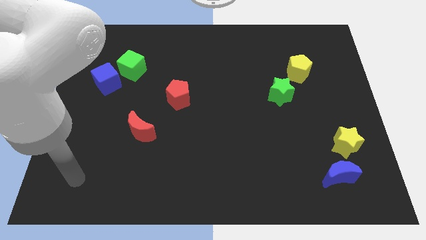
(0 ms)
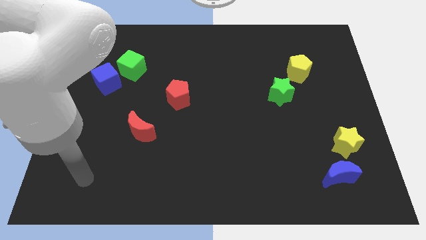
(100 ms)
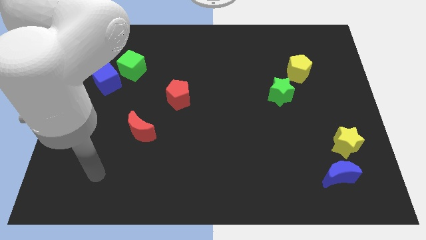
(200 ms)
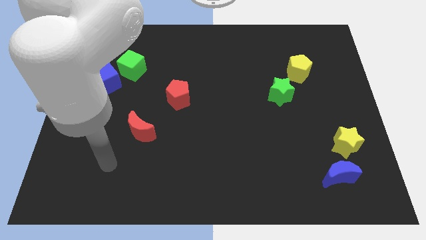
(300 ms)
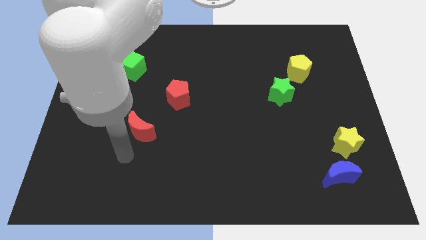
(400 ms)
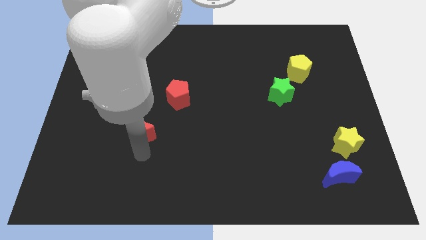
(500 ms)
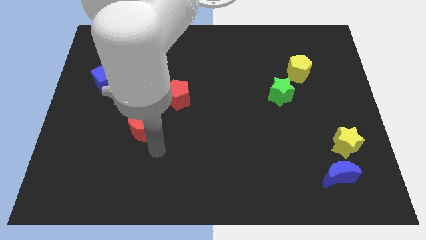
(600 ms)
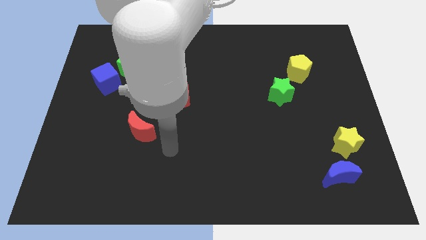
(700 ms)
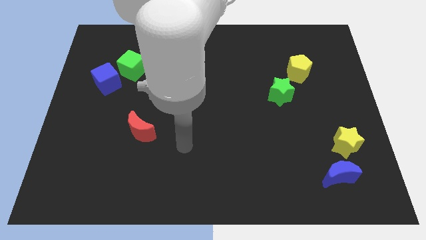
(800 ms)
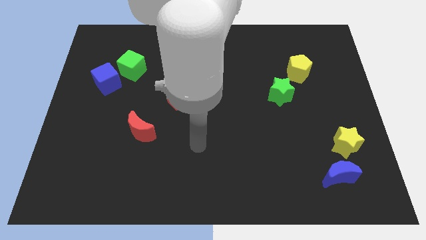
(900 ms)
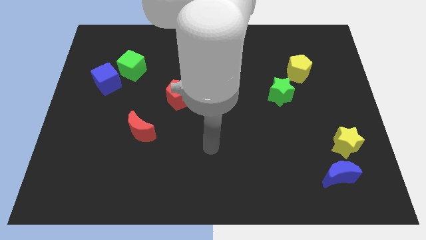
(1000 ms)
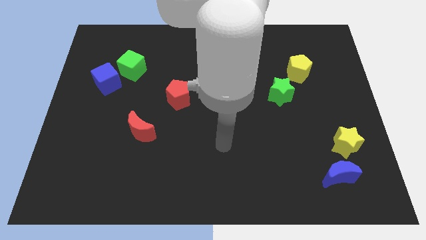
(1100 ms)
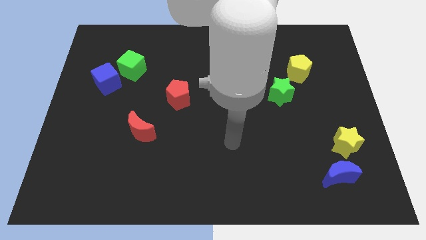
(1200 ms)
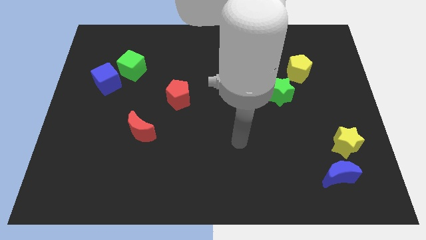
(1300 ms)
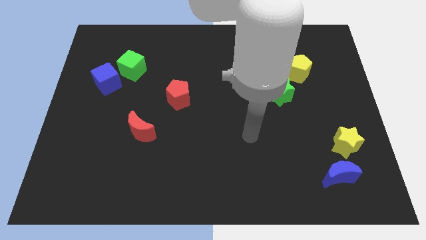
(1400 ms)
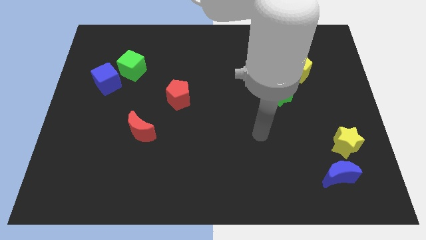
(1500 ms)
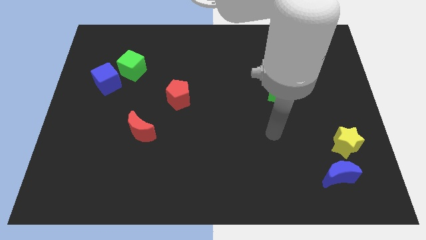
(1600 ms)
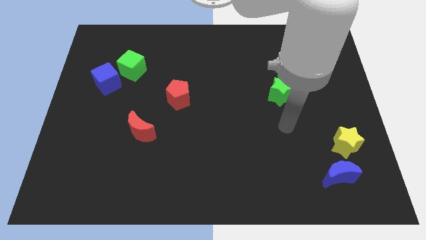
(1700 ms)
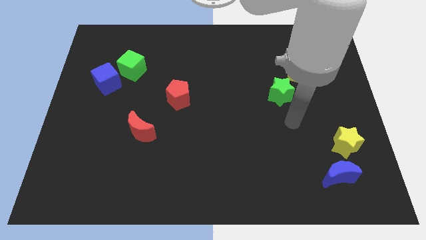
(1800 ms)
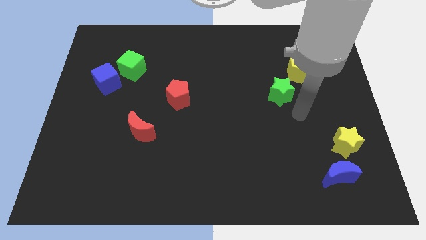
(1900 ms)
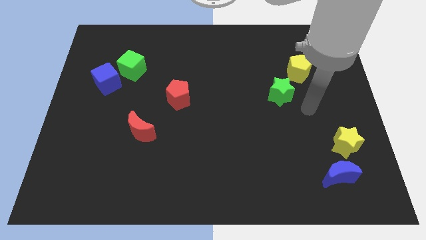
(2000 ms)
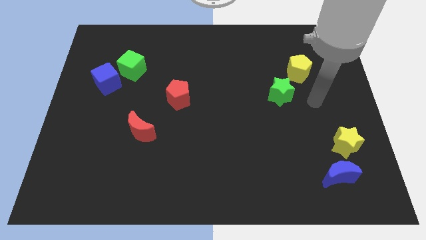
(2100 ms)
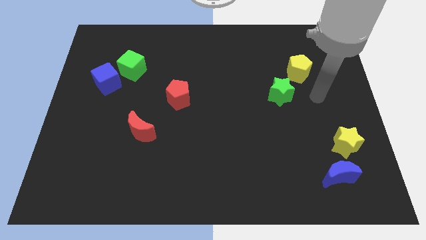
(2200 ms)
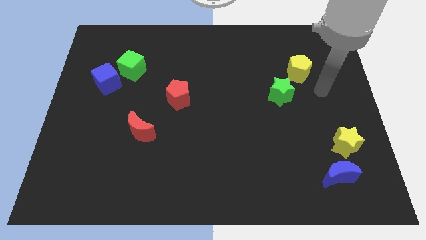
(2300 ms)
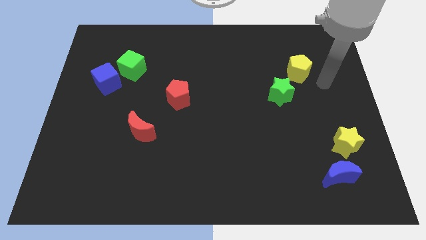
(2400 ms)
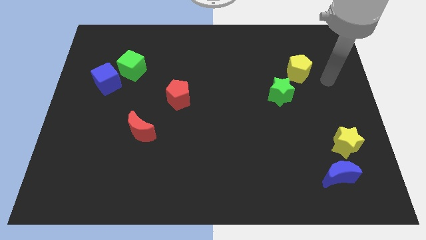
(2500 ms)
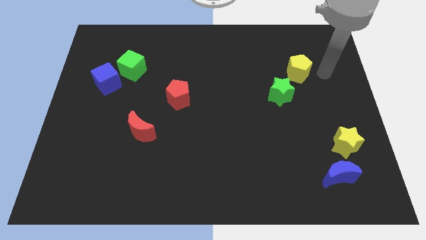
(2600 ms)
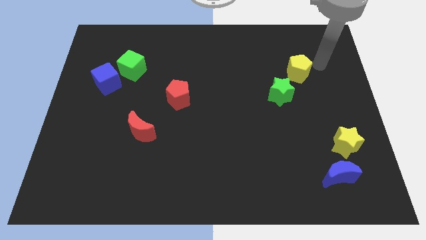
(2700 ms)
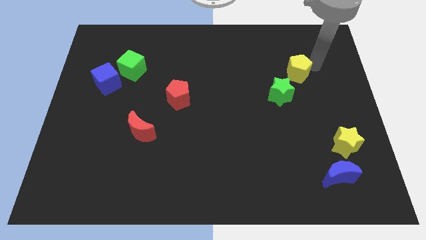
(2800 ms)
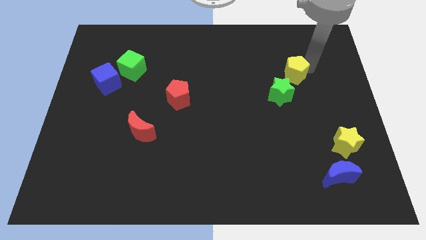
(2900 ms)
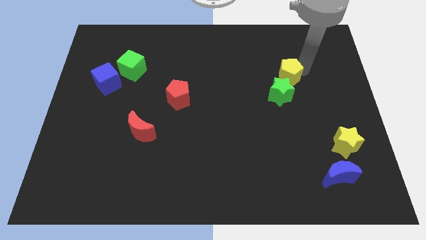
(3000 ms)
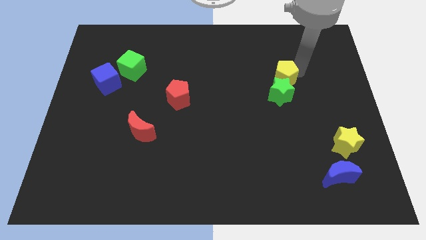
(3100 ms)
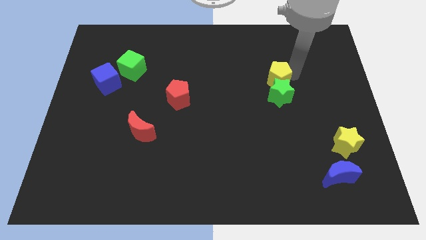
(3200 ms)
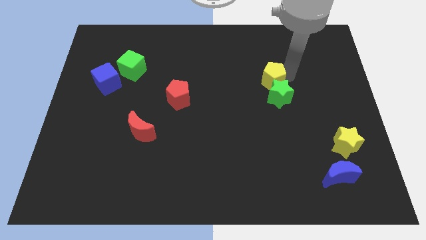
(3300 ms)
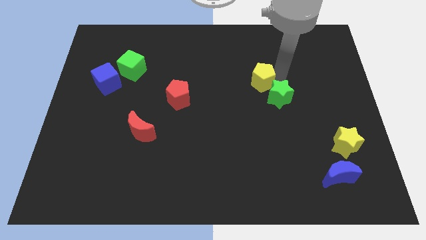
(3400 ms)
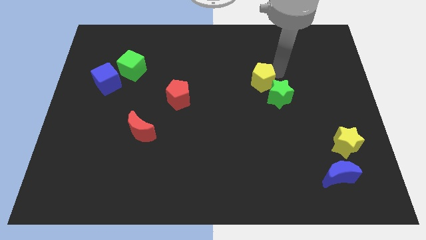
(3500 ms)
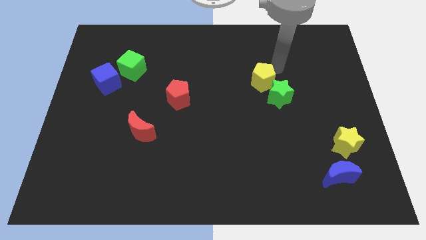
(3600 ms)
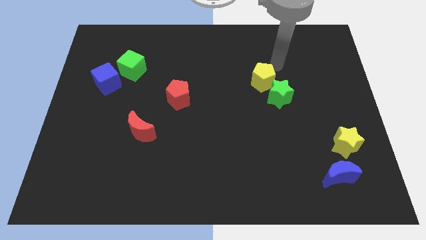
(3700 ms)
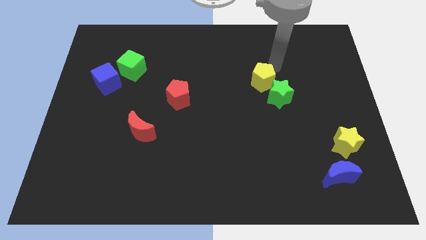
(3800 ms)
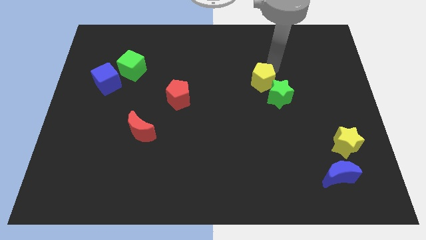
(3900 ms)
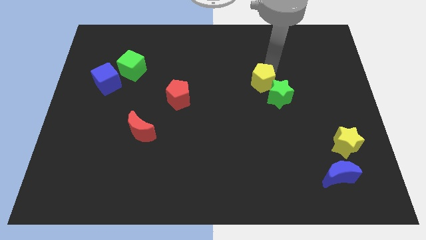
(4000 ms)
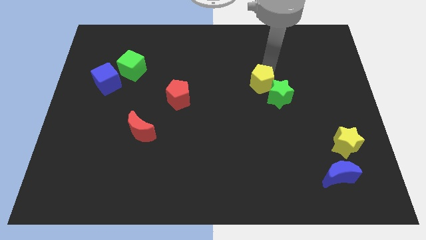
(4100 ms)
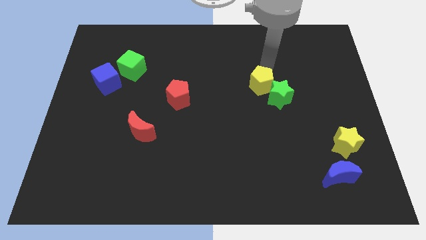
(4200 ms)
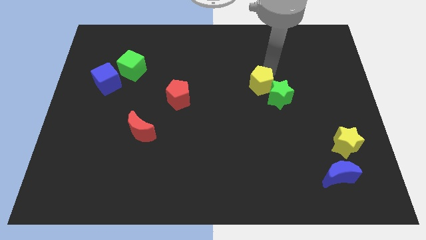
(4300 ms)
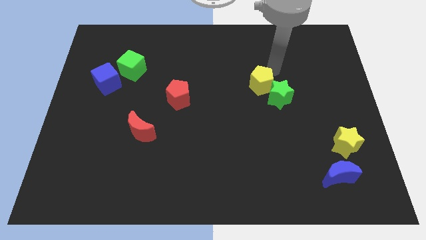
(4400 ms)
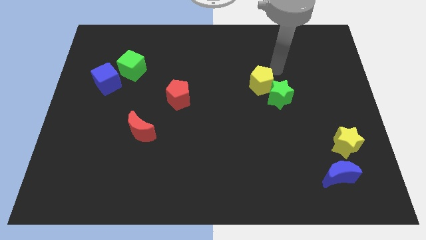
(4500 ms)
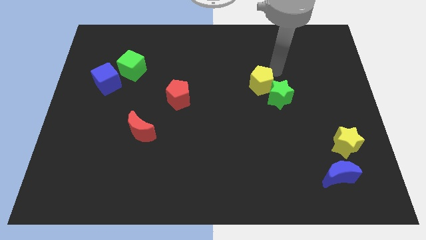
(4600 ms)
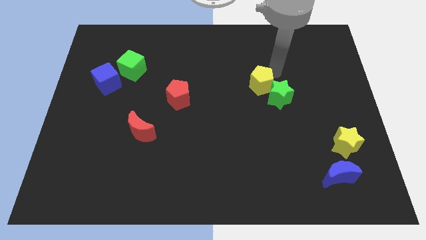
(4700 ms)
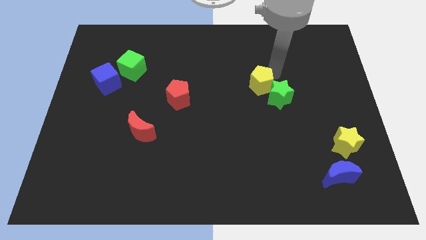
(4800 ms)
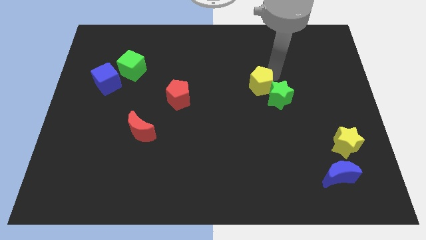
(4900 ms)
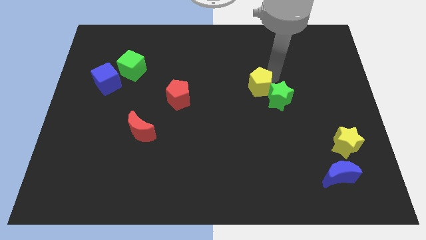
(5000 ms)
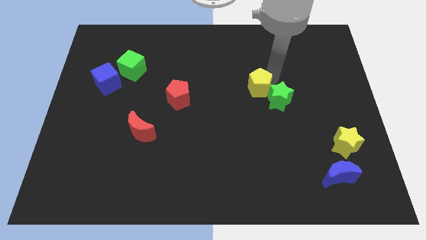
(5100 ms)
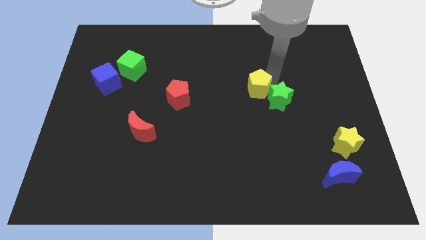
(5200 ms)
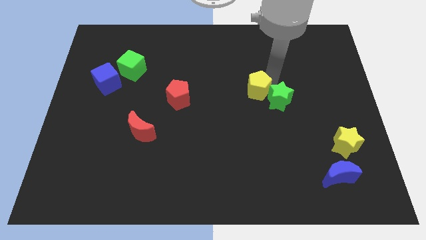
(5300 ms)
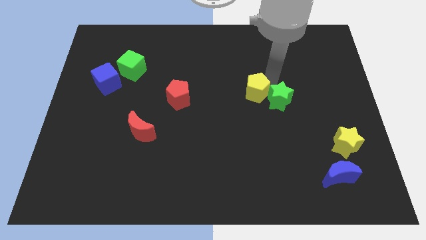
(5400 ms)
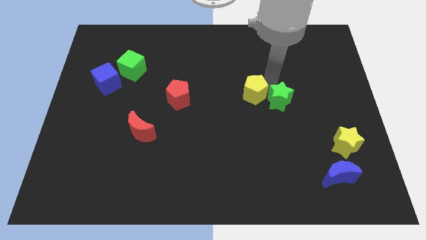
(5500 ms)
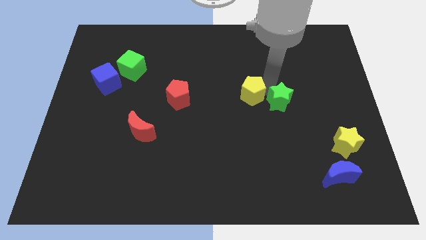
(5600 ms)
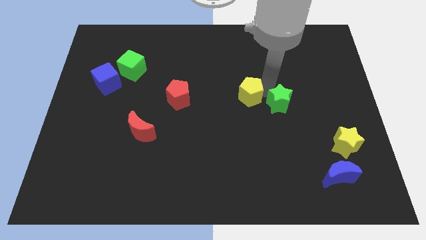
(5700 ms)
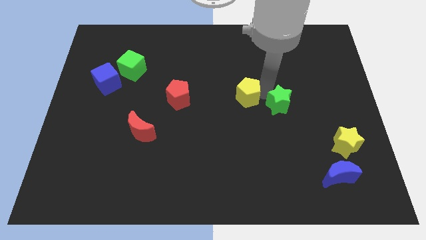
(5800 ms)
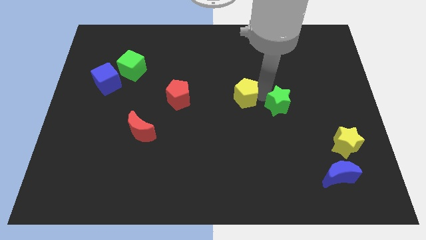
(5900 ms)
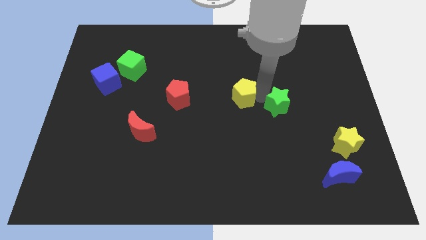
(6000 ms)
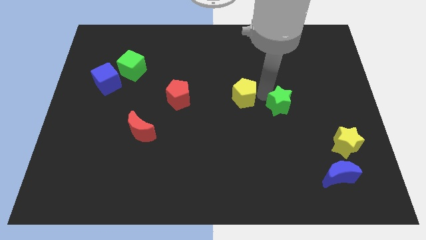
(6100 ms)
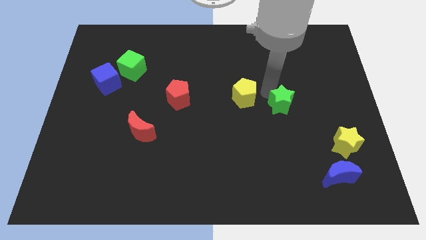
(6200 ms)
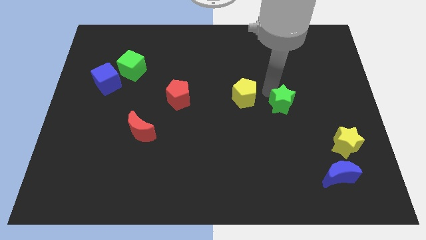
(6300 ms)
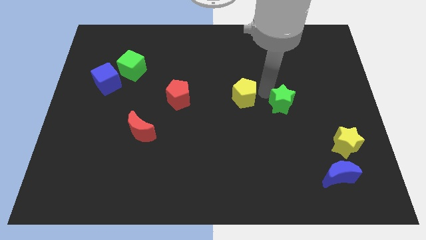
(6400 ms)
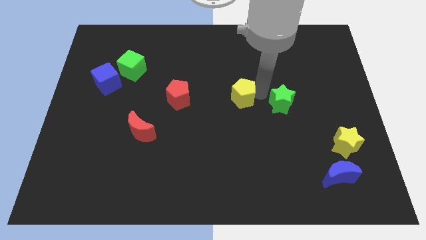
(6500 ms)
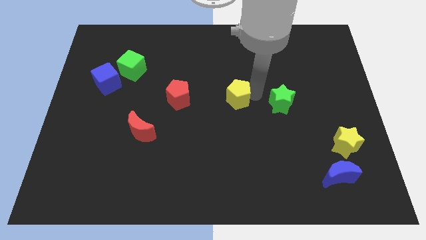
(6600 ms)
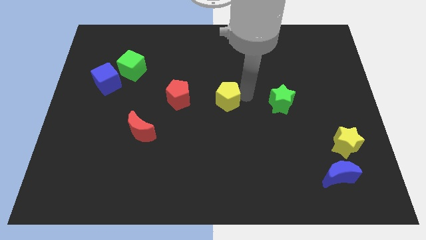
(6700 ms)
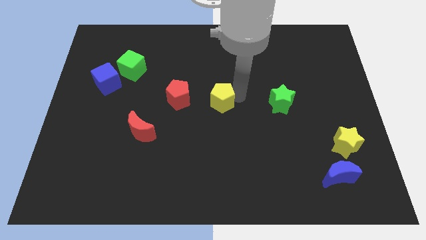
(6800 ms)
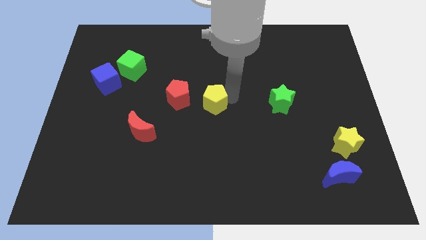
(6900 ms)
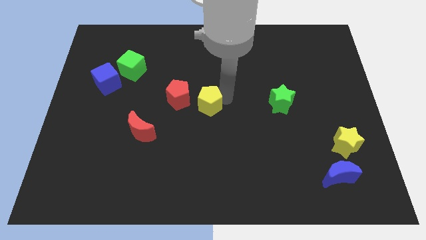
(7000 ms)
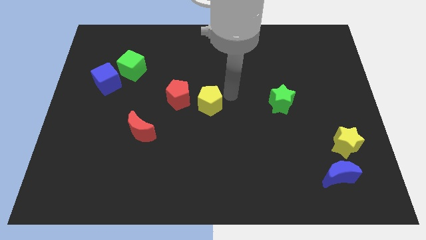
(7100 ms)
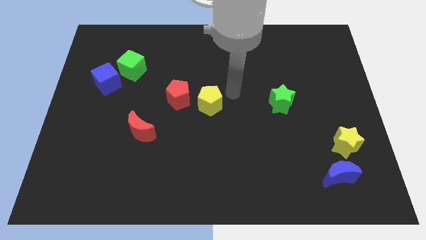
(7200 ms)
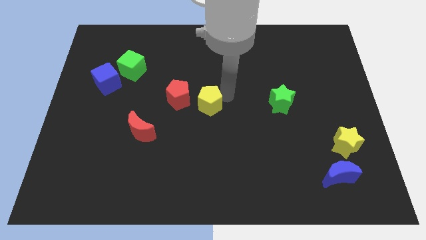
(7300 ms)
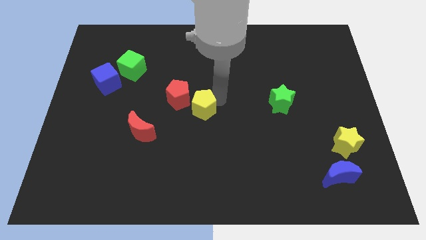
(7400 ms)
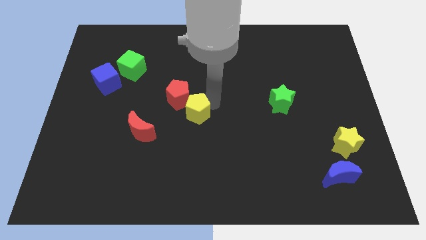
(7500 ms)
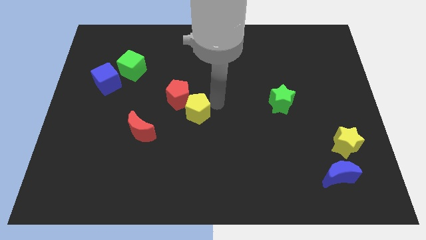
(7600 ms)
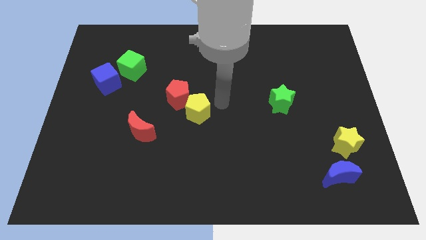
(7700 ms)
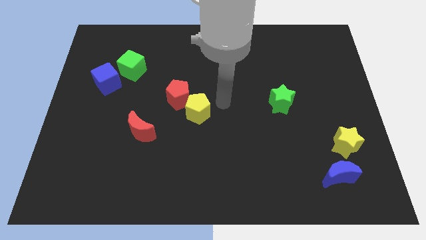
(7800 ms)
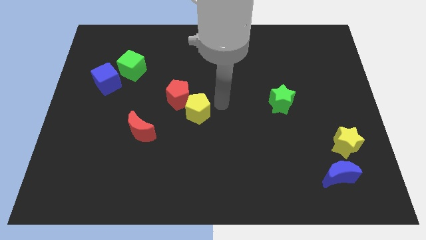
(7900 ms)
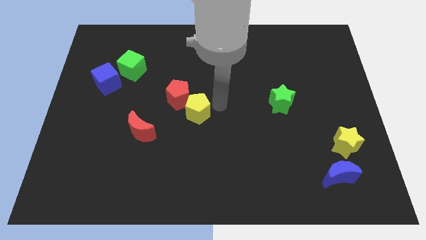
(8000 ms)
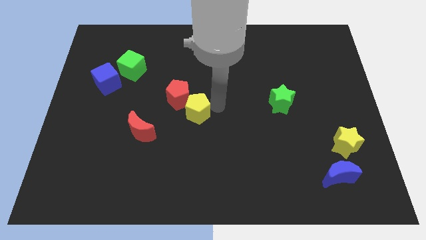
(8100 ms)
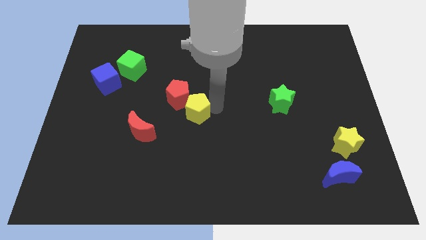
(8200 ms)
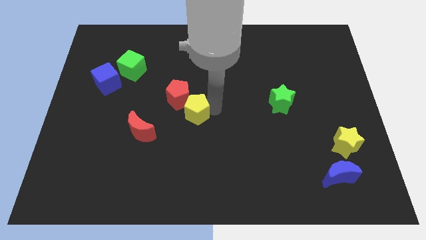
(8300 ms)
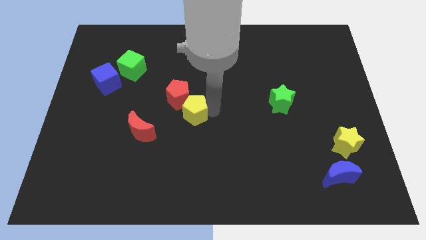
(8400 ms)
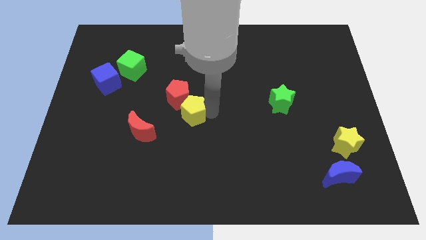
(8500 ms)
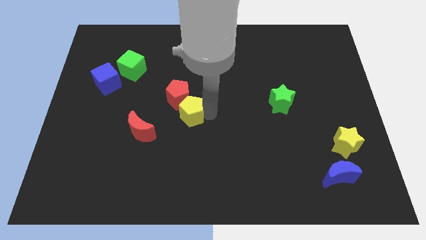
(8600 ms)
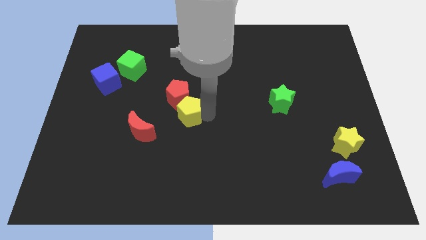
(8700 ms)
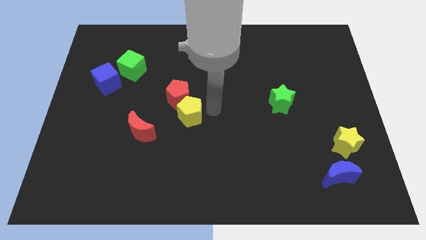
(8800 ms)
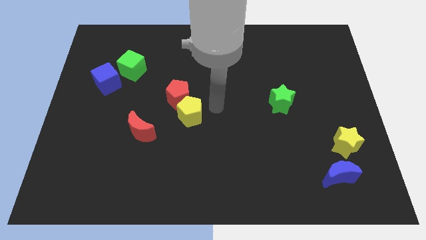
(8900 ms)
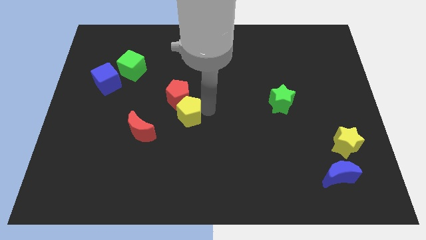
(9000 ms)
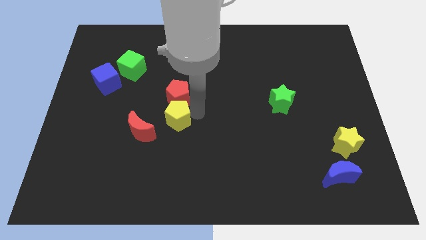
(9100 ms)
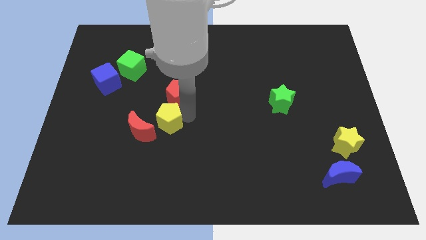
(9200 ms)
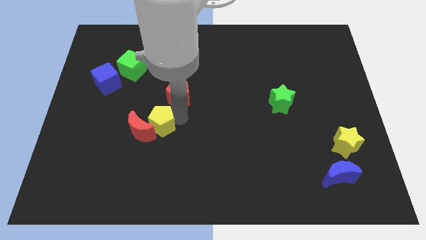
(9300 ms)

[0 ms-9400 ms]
move the yellow pentagon next to the red moon
